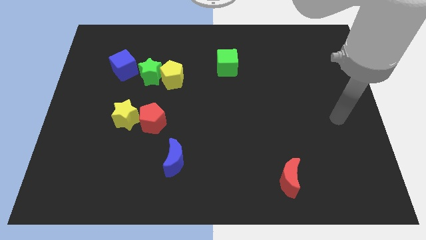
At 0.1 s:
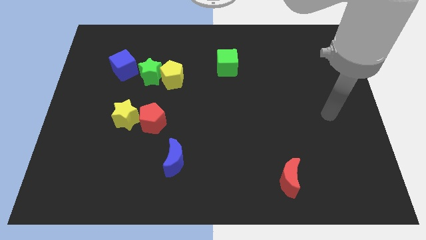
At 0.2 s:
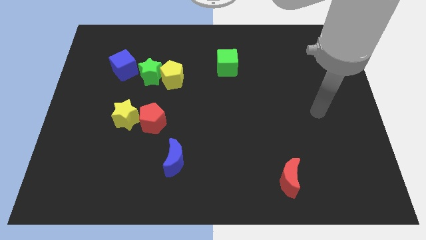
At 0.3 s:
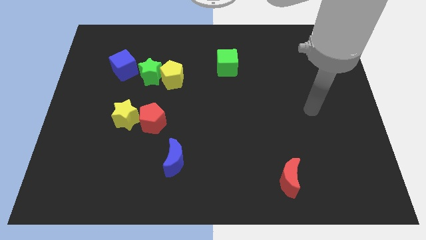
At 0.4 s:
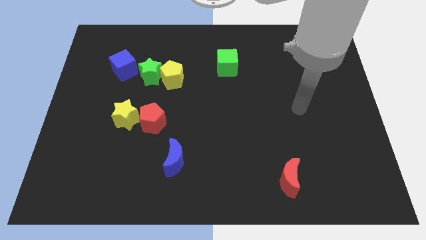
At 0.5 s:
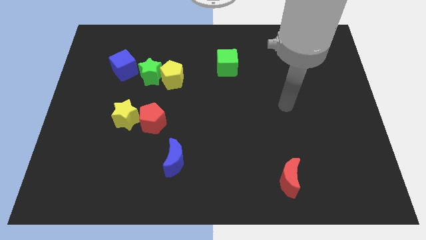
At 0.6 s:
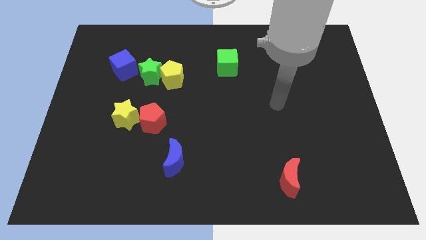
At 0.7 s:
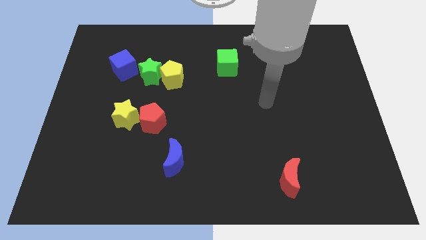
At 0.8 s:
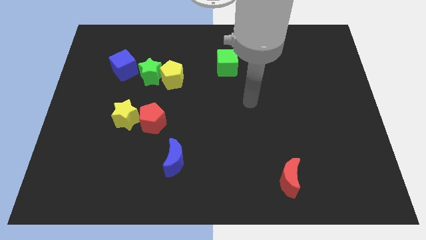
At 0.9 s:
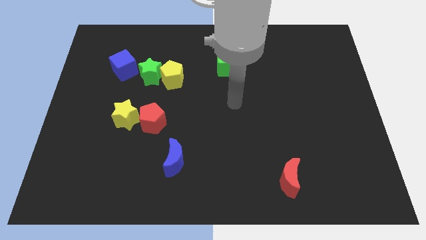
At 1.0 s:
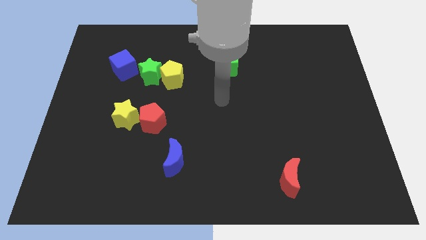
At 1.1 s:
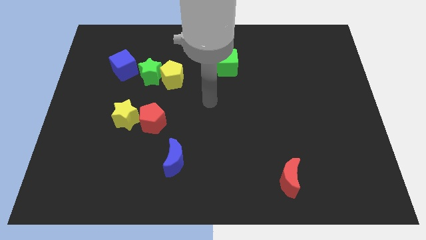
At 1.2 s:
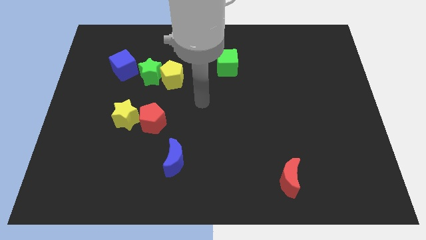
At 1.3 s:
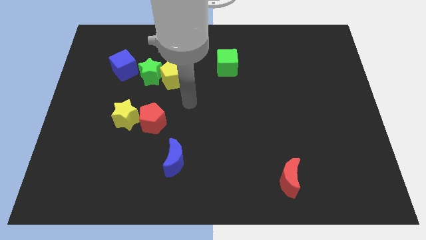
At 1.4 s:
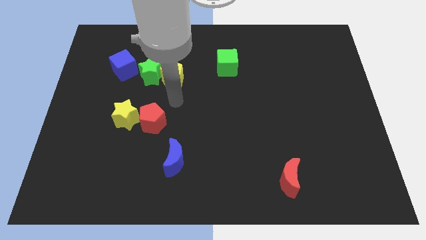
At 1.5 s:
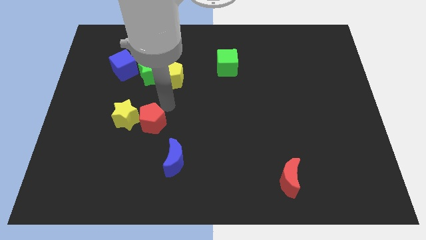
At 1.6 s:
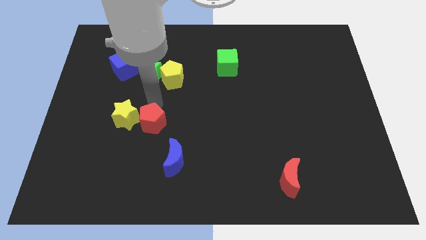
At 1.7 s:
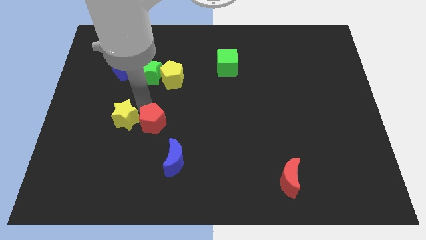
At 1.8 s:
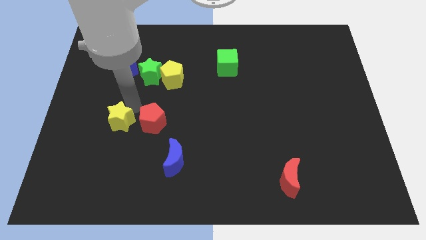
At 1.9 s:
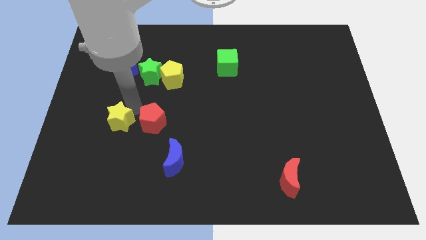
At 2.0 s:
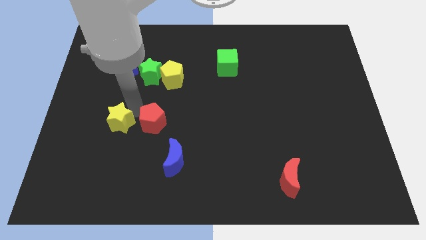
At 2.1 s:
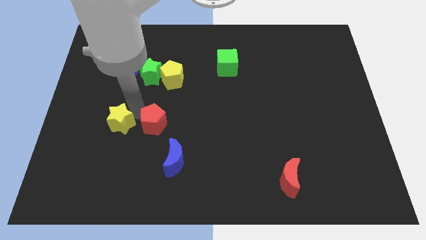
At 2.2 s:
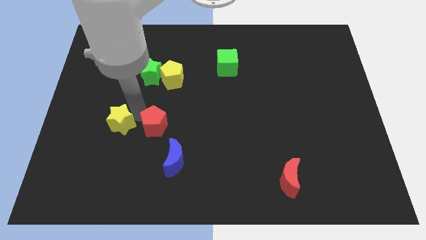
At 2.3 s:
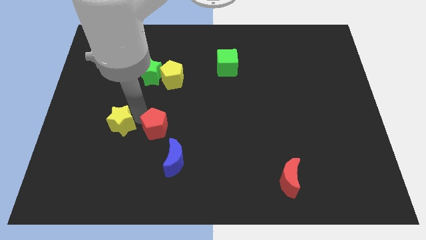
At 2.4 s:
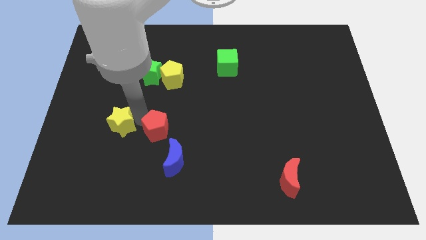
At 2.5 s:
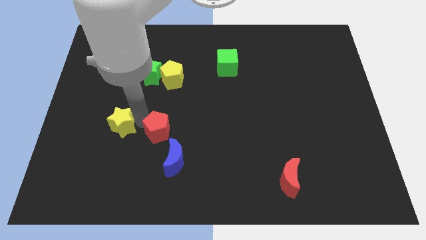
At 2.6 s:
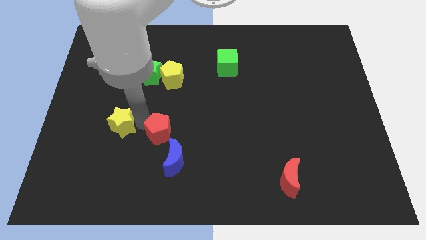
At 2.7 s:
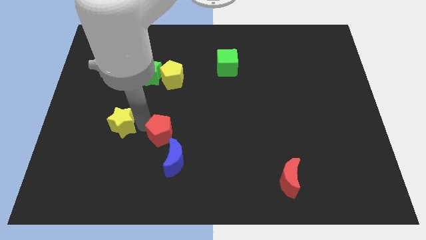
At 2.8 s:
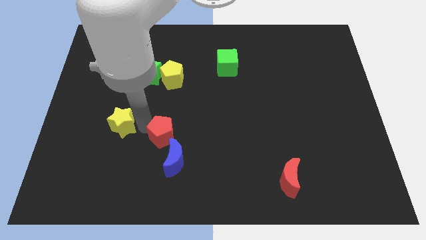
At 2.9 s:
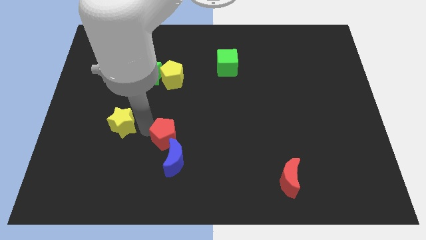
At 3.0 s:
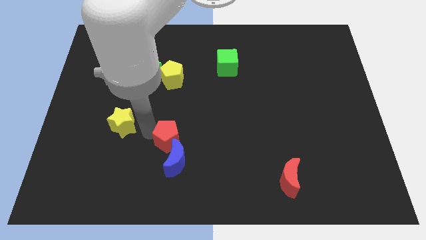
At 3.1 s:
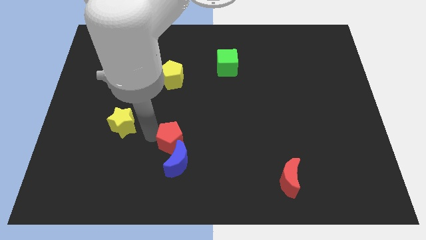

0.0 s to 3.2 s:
slide the red pentagon slightly down and to the right

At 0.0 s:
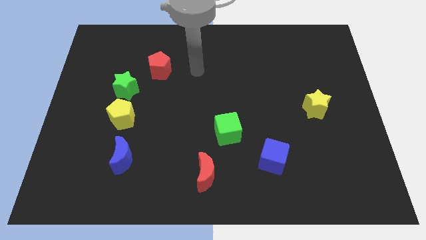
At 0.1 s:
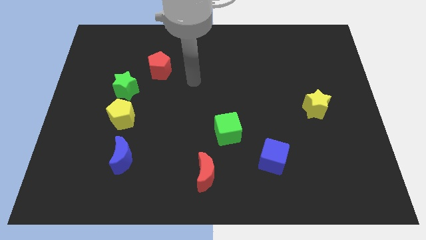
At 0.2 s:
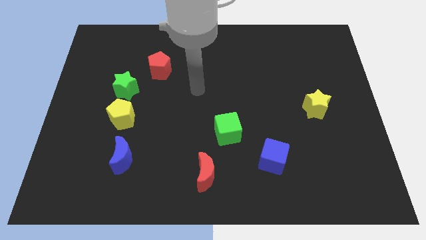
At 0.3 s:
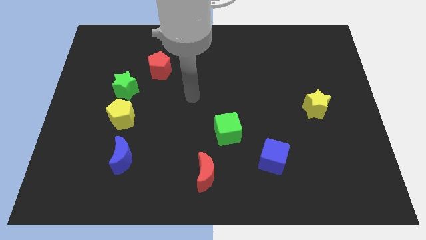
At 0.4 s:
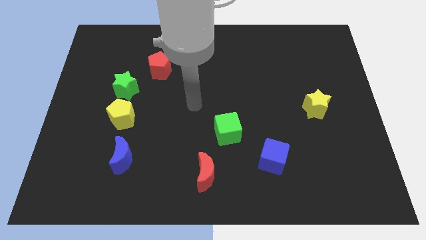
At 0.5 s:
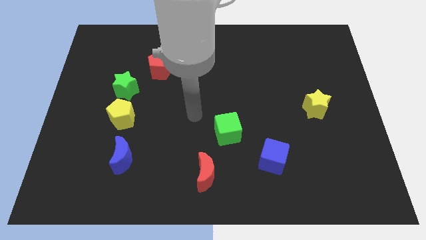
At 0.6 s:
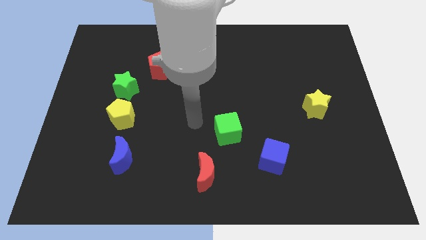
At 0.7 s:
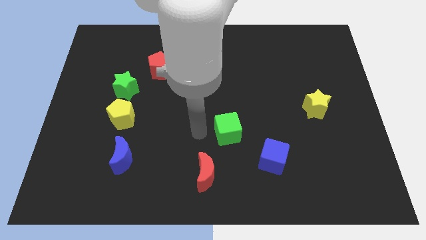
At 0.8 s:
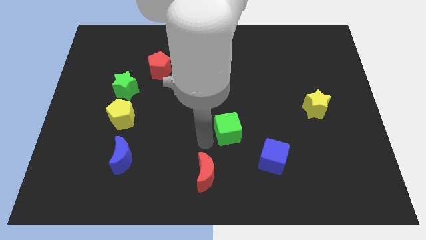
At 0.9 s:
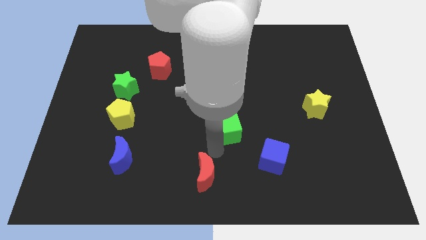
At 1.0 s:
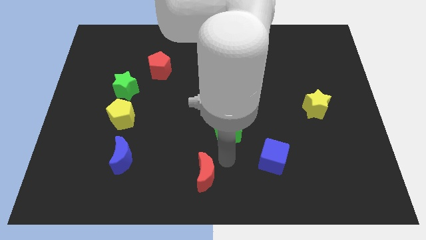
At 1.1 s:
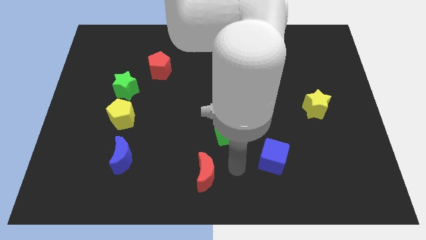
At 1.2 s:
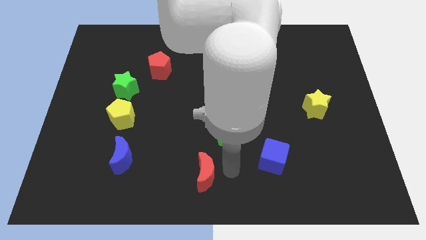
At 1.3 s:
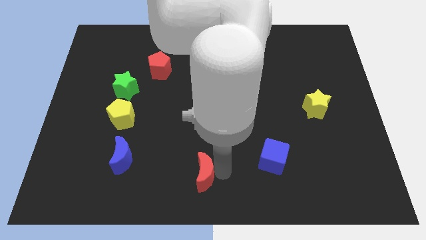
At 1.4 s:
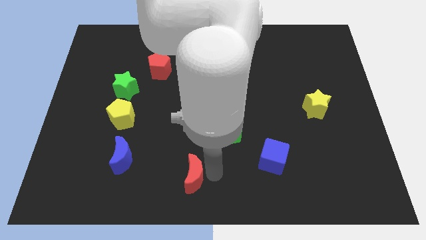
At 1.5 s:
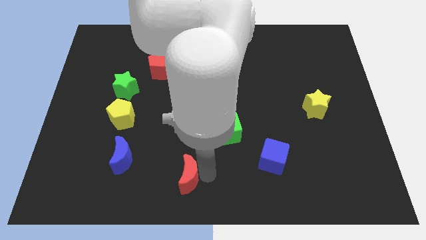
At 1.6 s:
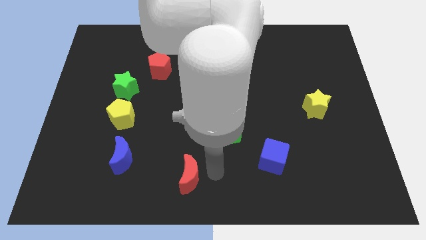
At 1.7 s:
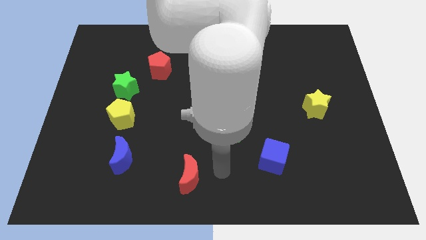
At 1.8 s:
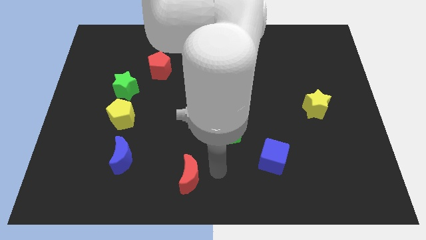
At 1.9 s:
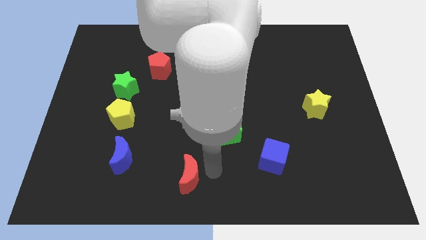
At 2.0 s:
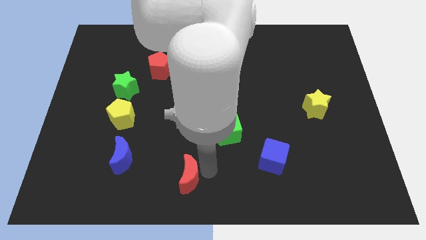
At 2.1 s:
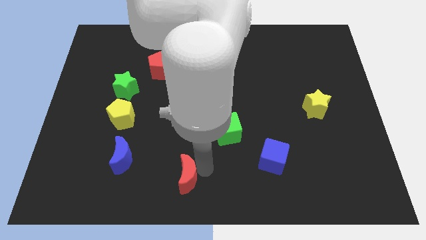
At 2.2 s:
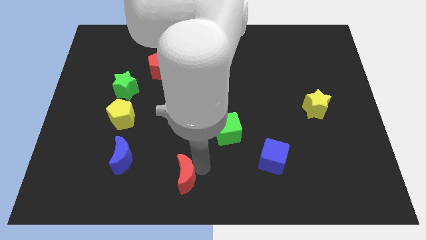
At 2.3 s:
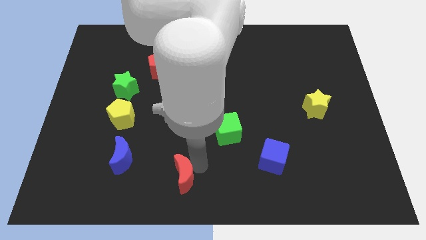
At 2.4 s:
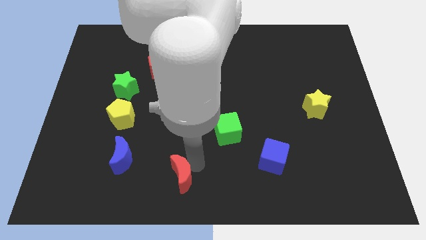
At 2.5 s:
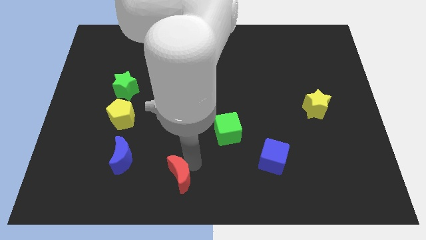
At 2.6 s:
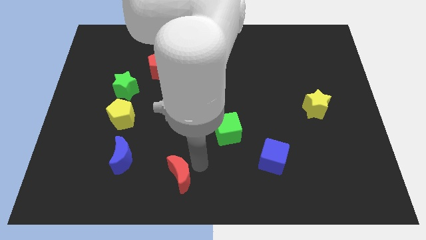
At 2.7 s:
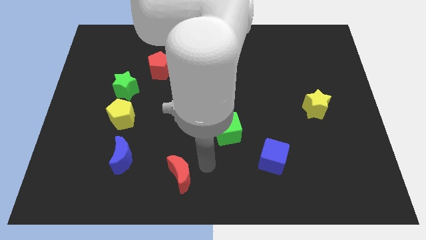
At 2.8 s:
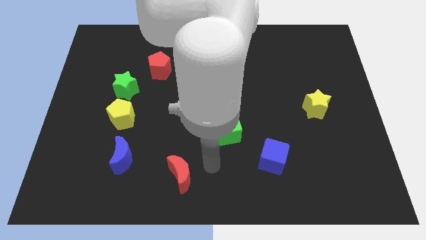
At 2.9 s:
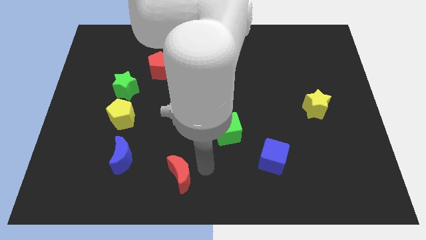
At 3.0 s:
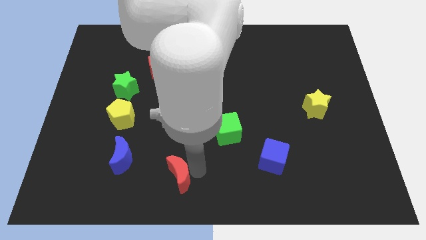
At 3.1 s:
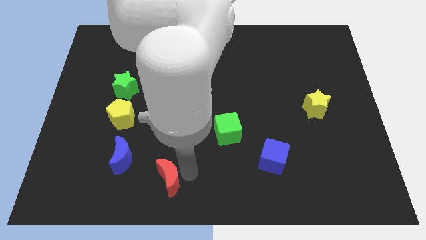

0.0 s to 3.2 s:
push the red moon somewhat left

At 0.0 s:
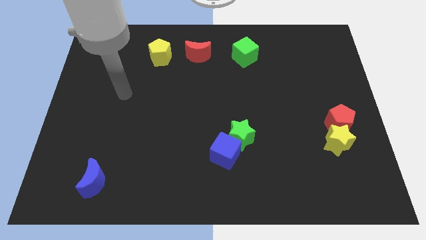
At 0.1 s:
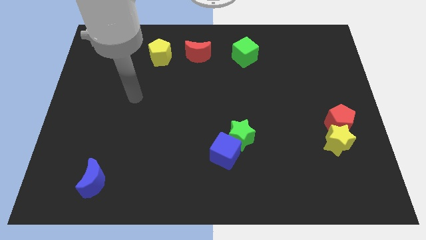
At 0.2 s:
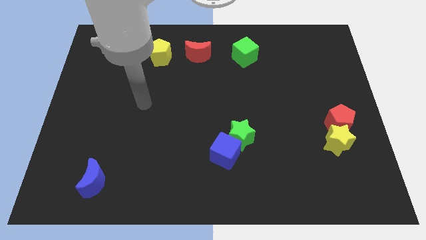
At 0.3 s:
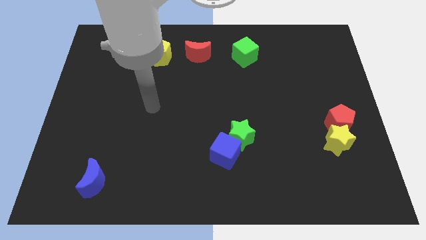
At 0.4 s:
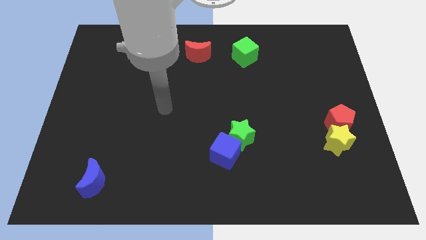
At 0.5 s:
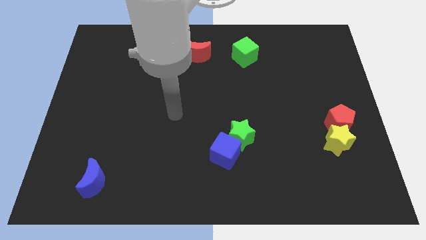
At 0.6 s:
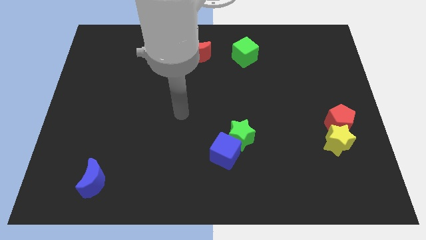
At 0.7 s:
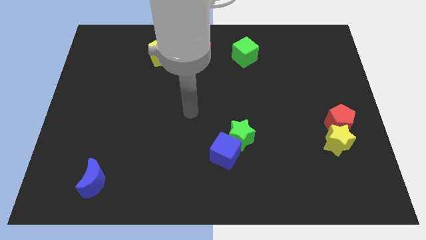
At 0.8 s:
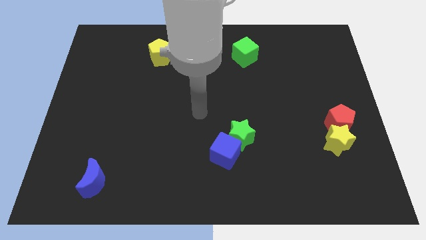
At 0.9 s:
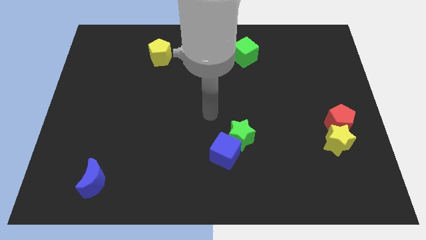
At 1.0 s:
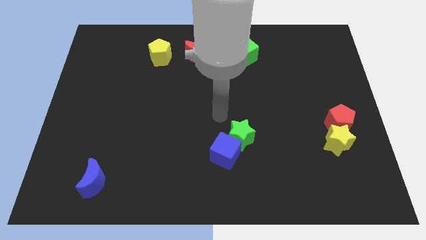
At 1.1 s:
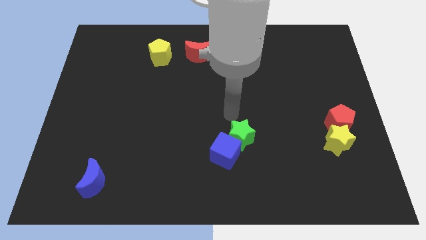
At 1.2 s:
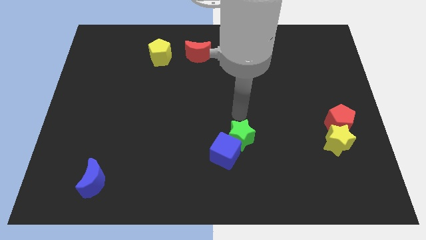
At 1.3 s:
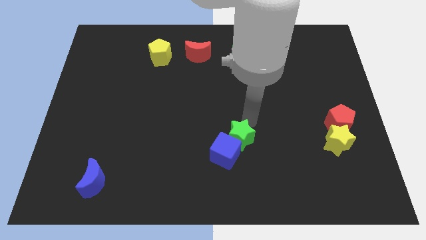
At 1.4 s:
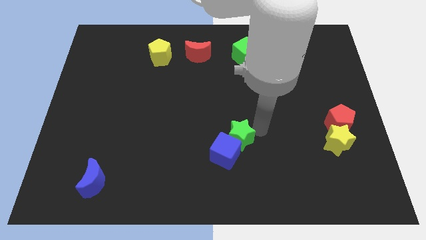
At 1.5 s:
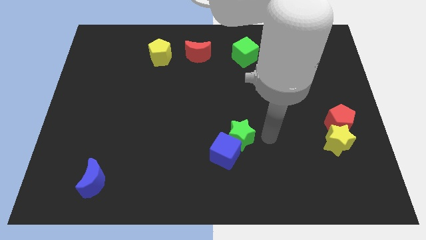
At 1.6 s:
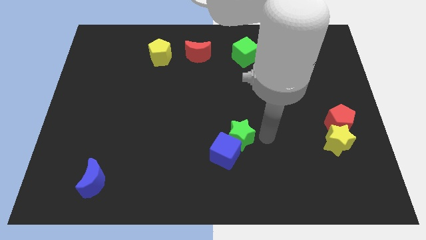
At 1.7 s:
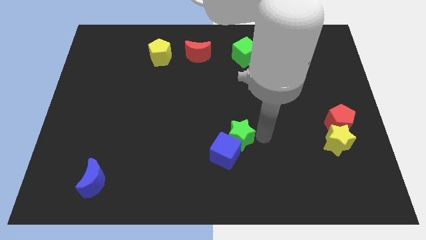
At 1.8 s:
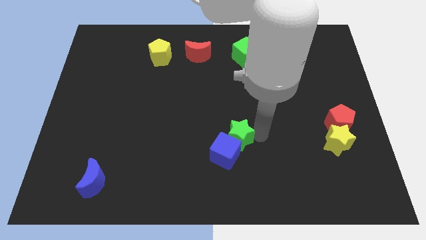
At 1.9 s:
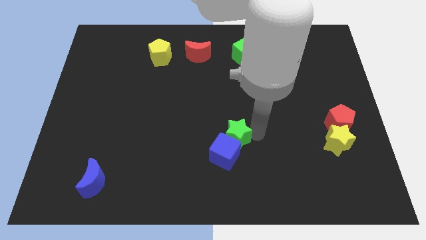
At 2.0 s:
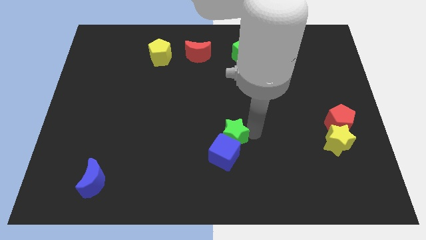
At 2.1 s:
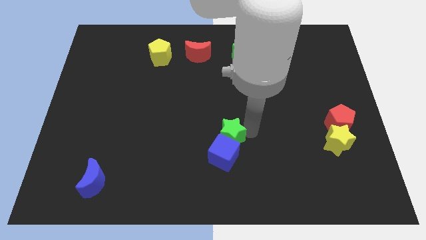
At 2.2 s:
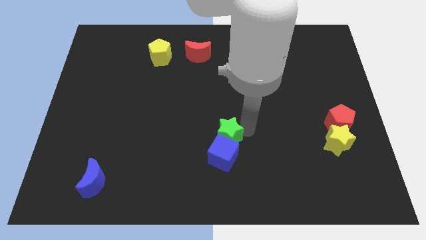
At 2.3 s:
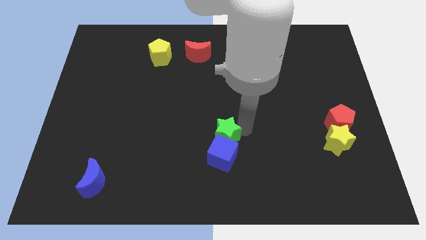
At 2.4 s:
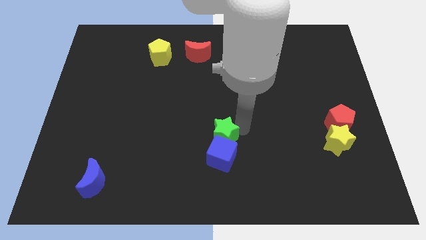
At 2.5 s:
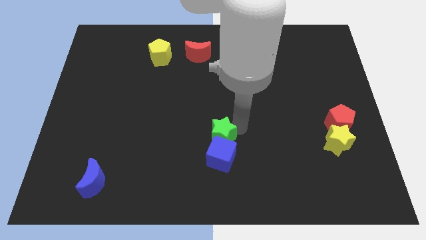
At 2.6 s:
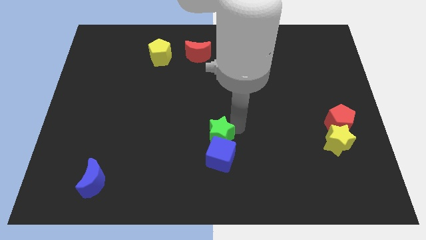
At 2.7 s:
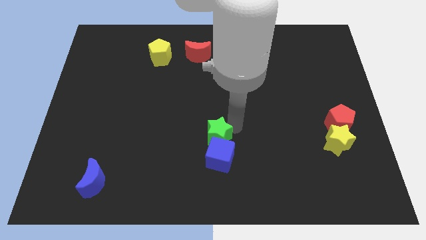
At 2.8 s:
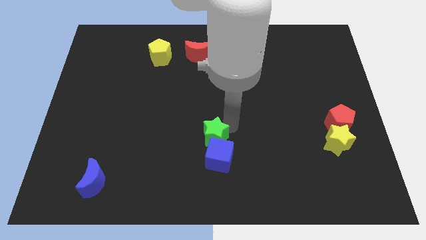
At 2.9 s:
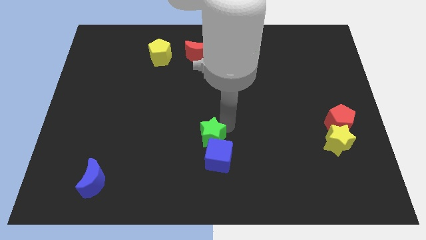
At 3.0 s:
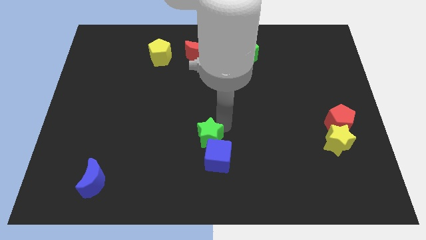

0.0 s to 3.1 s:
move the green star somewhat to the left
